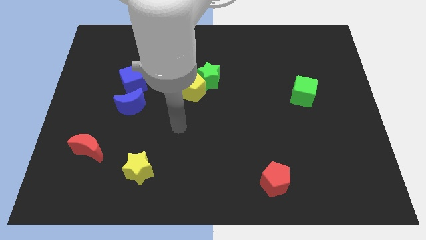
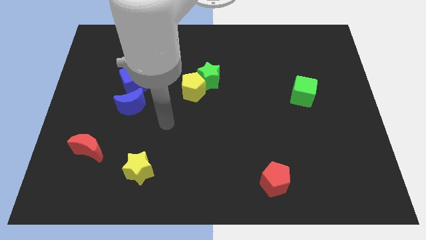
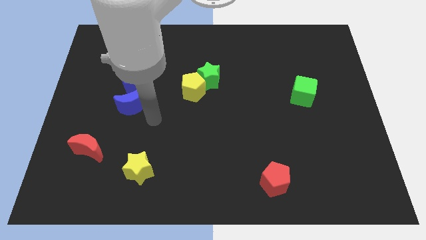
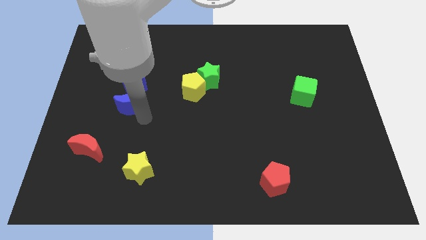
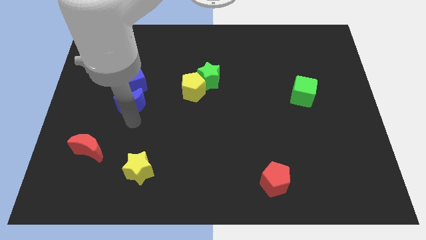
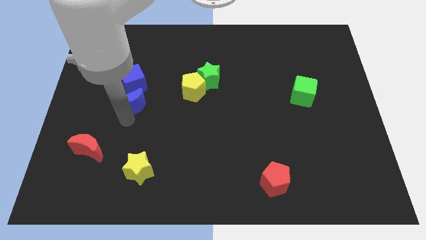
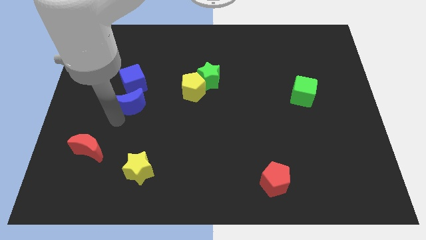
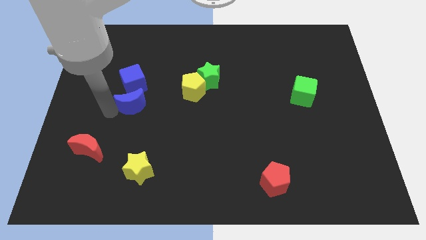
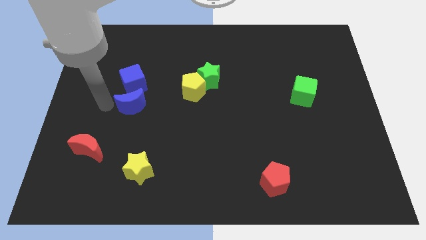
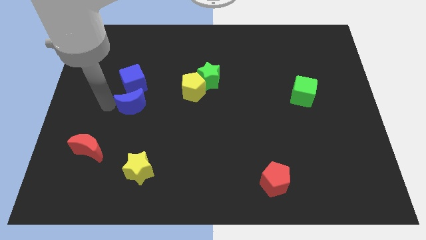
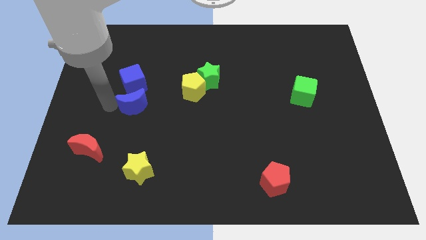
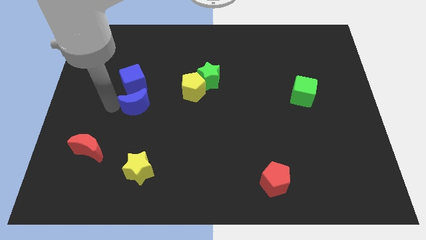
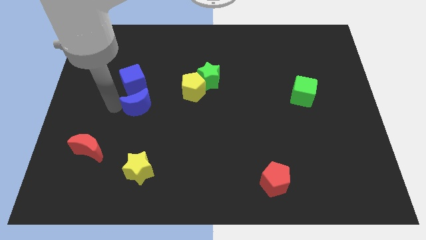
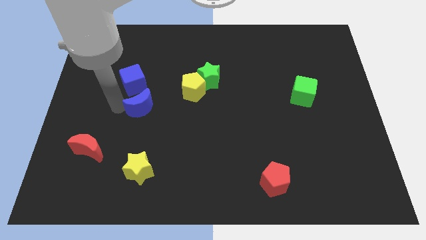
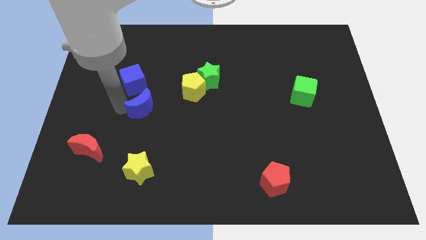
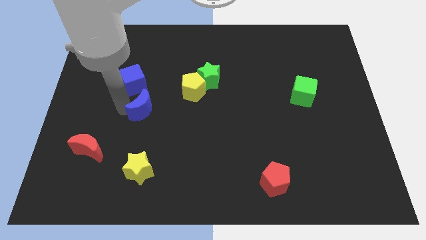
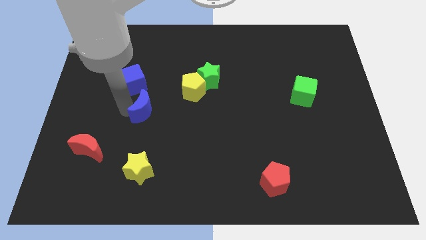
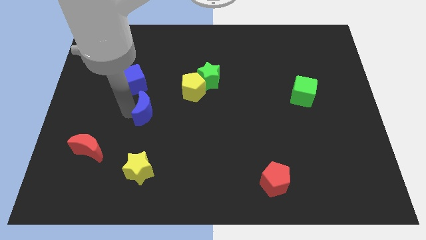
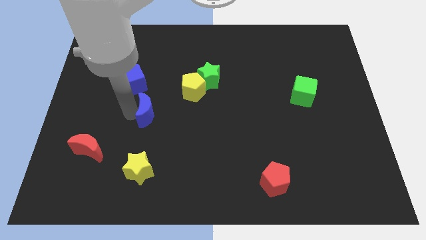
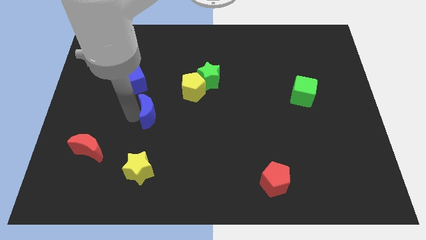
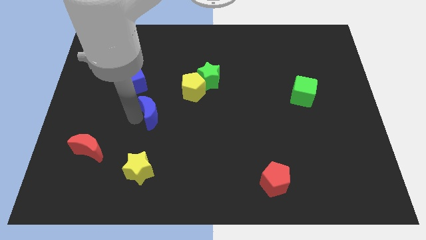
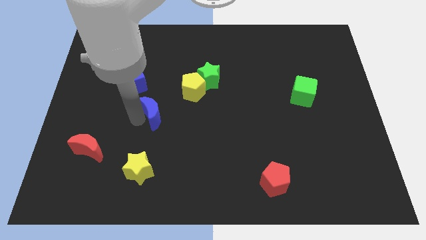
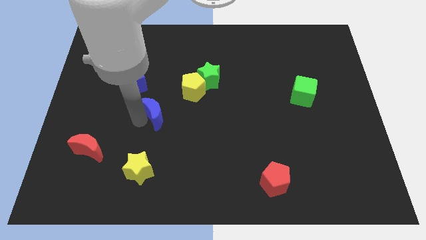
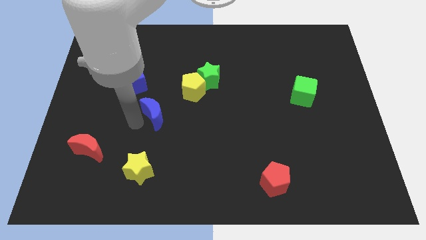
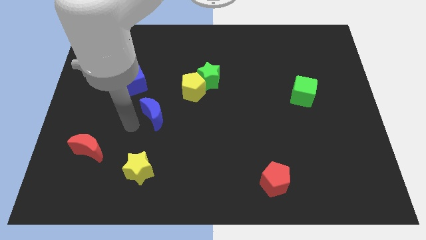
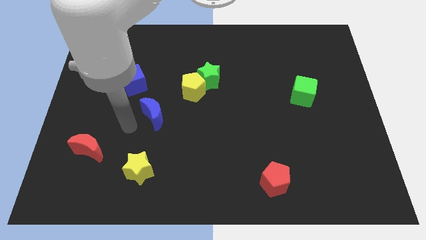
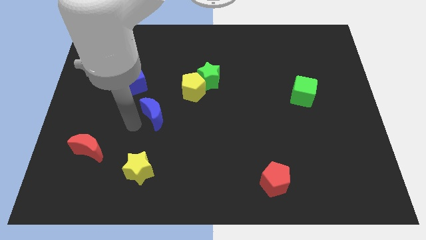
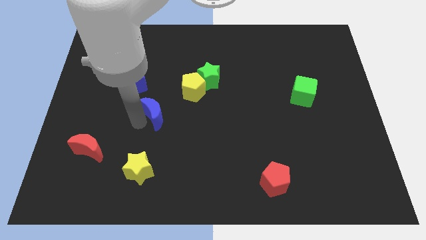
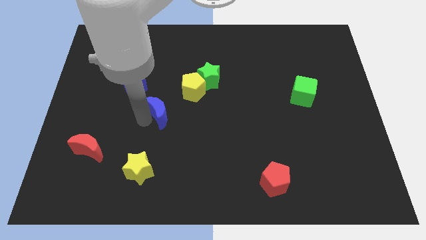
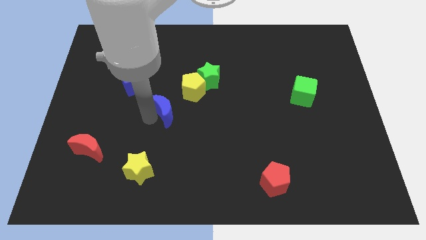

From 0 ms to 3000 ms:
push the blue moon to the right a little bit

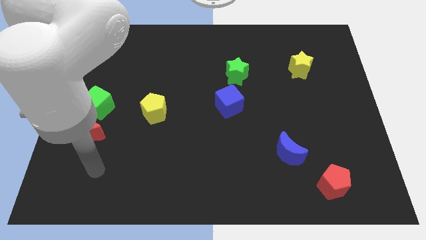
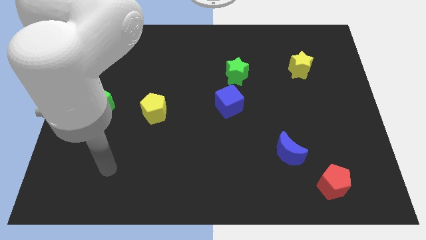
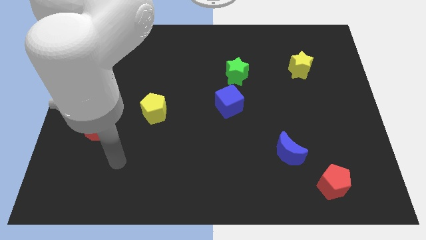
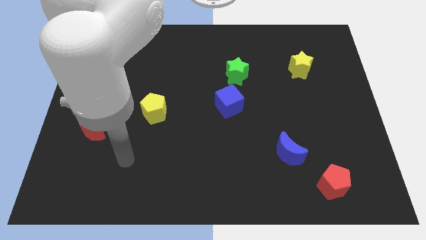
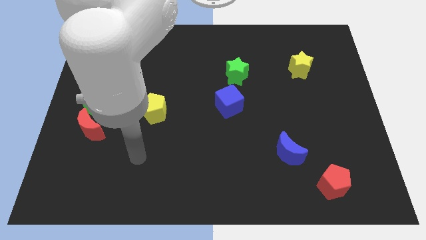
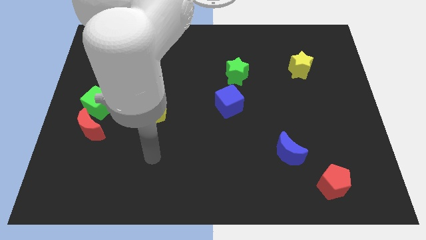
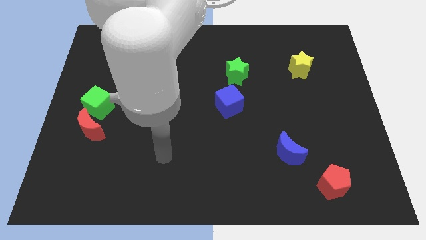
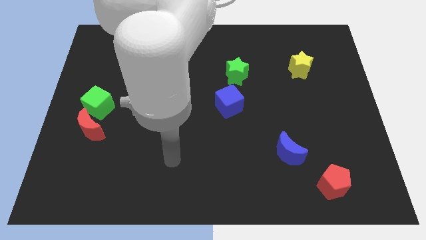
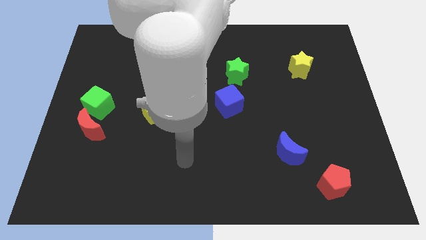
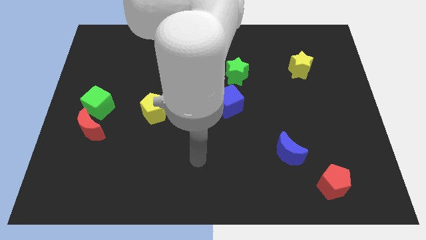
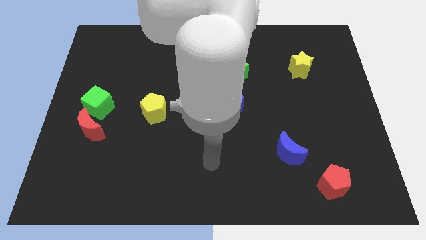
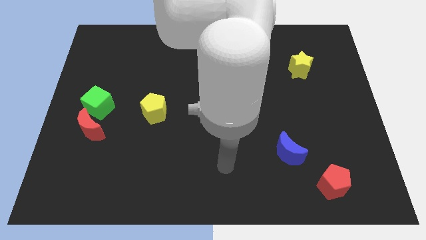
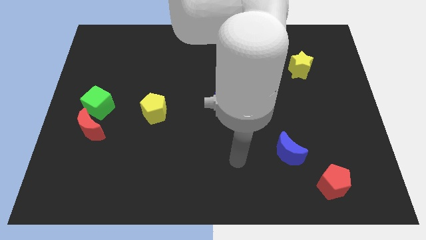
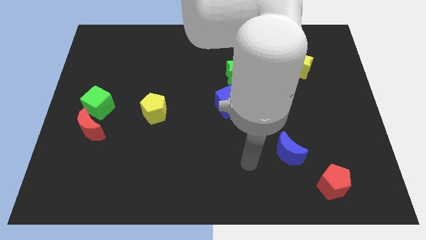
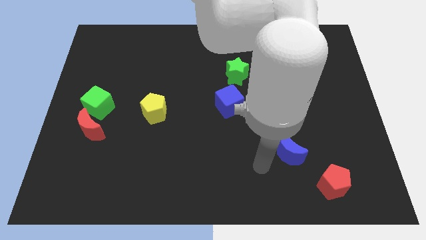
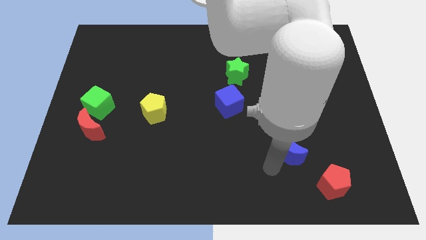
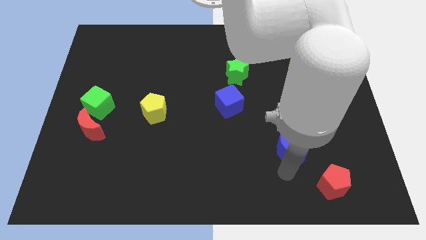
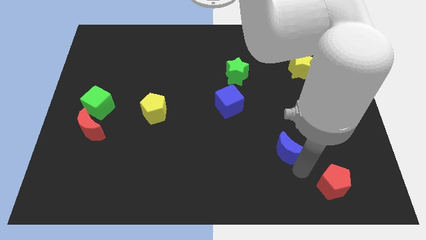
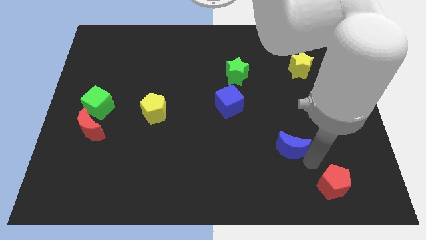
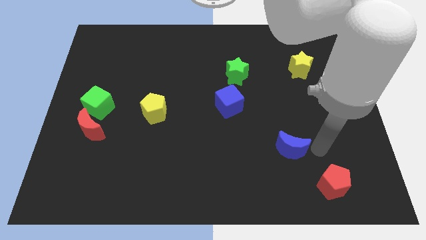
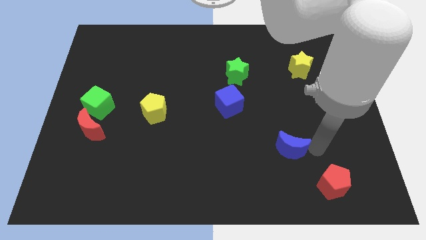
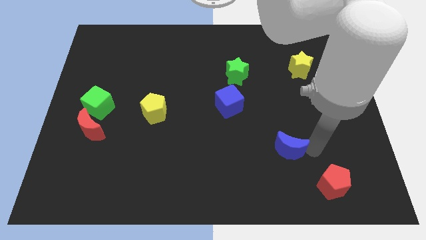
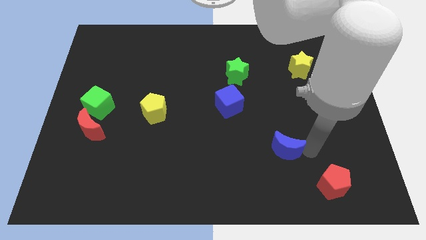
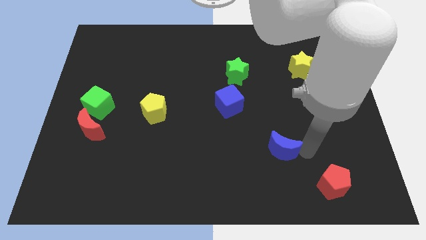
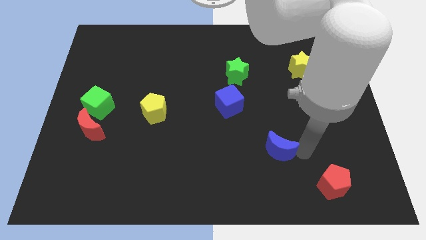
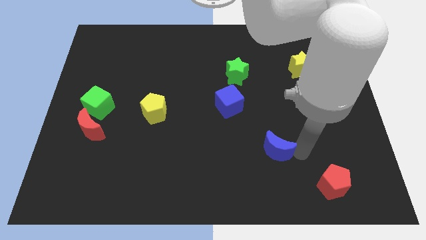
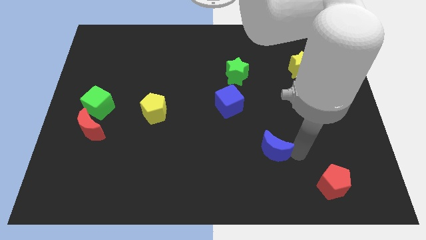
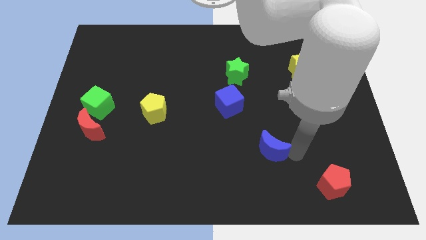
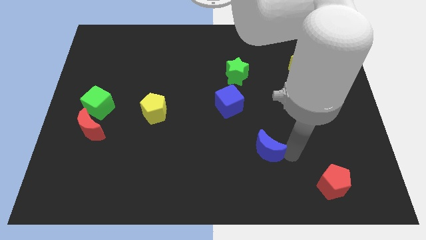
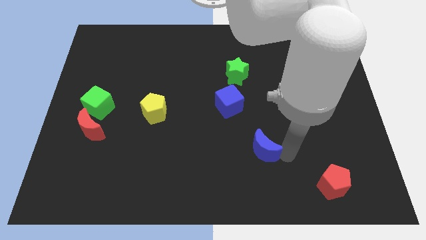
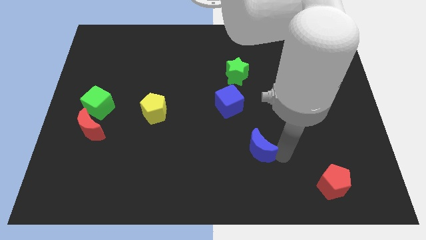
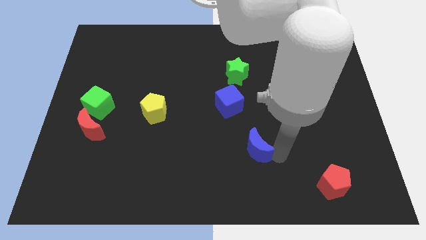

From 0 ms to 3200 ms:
slide the blue moon a little left

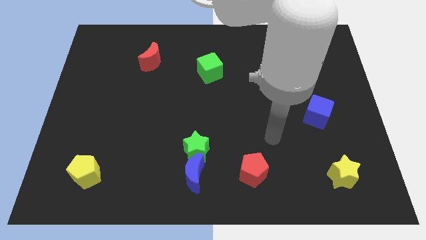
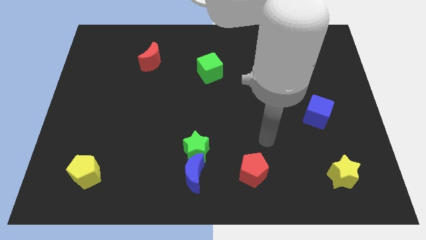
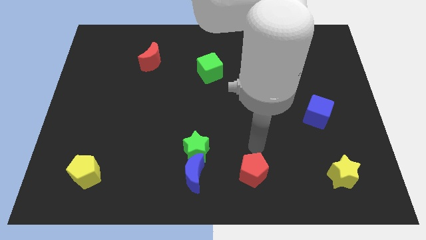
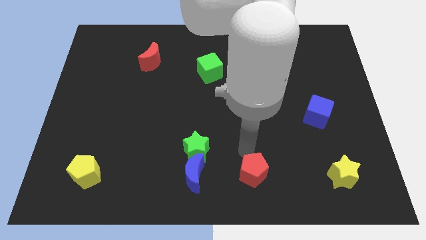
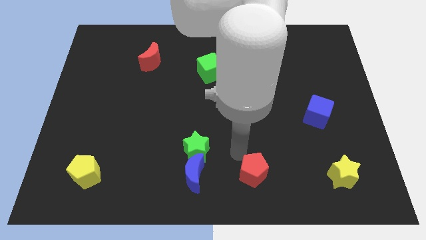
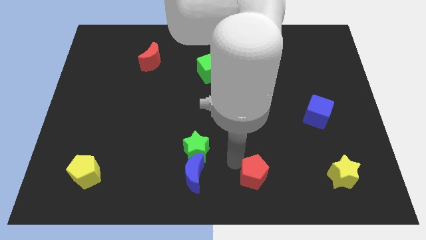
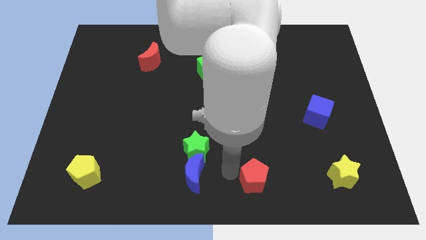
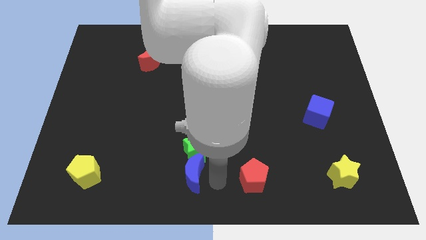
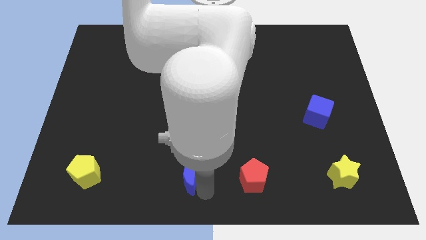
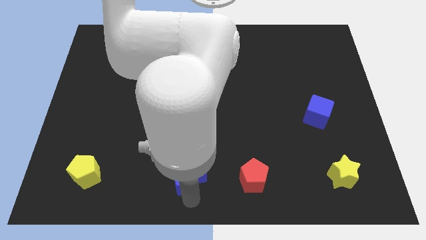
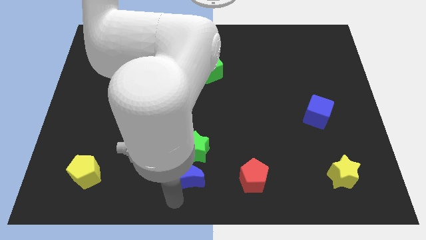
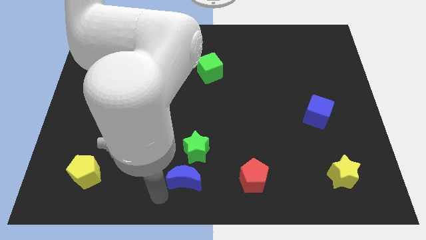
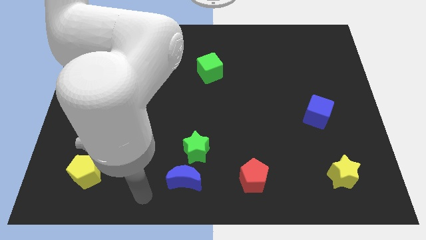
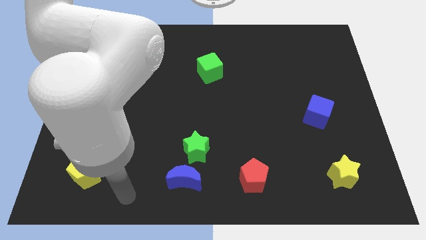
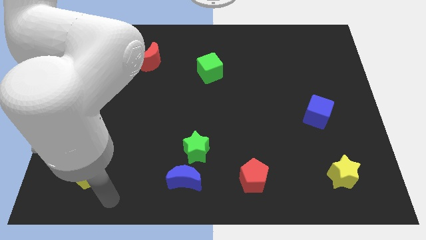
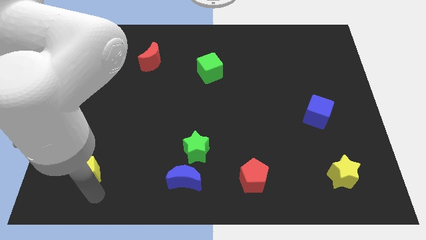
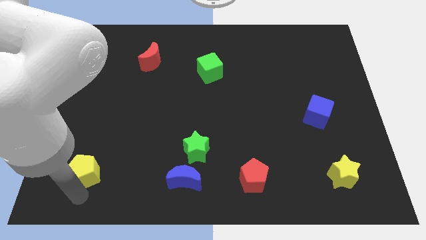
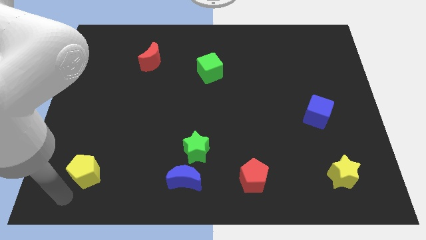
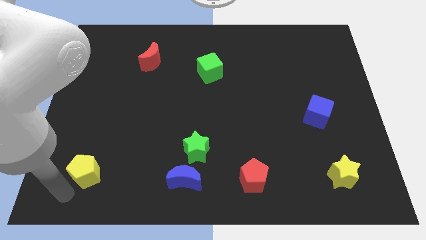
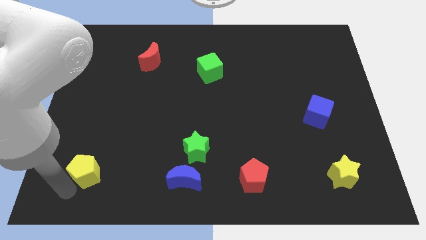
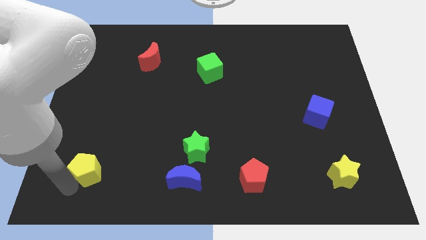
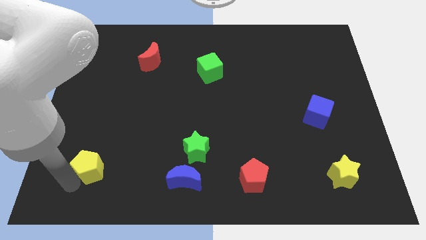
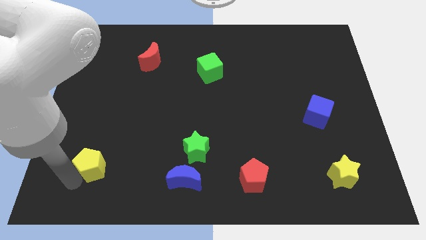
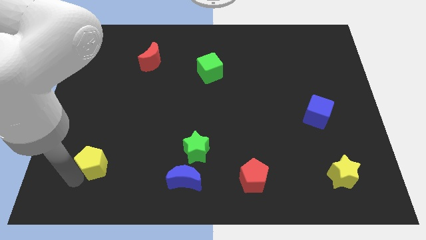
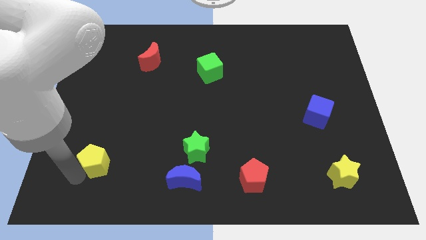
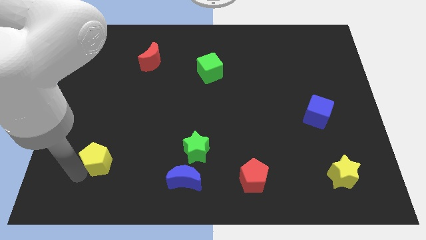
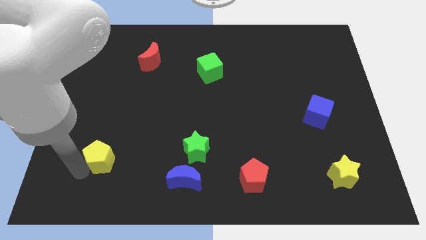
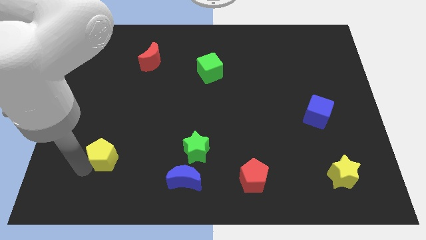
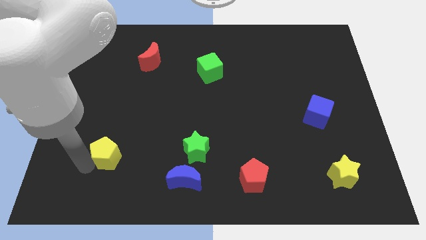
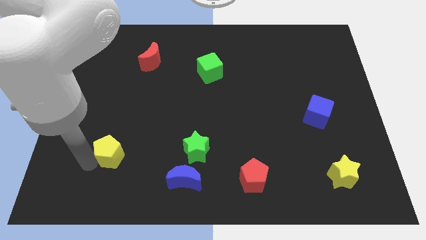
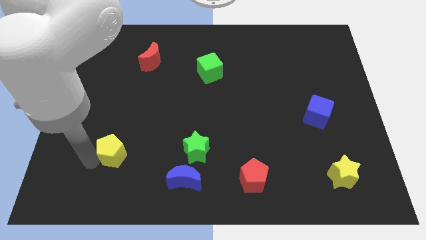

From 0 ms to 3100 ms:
push the yellow pentagon upwards and to the right diagonally somewhat
